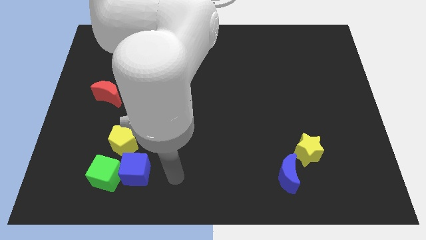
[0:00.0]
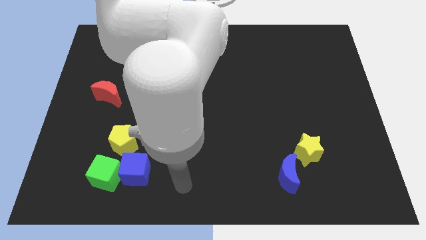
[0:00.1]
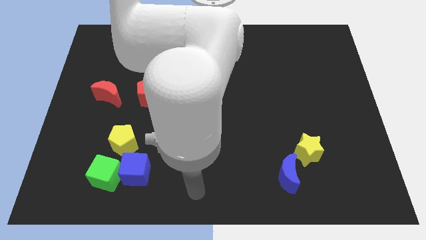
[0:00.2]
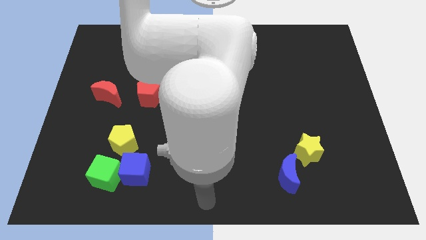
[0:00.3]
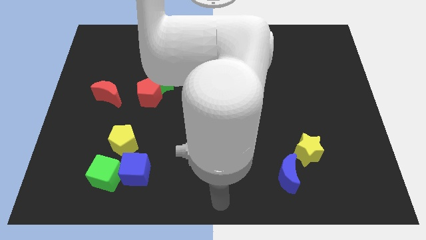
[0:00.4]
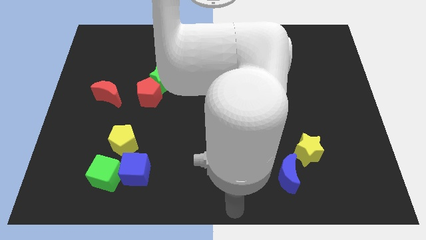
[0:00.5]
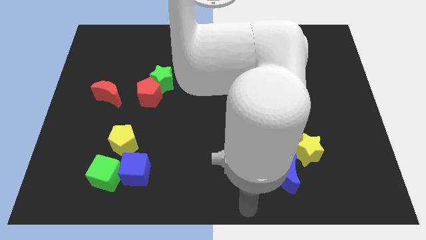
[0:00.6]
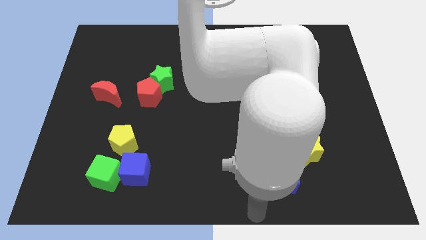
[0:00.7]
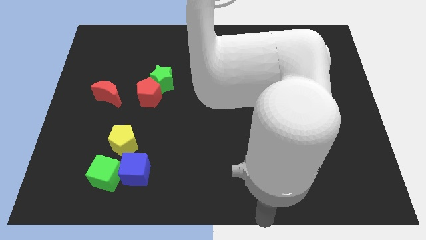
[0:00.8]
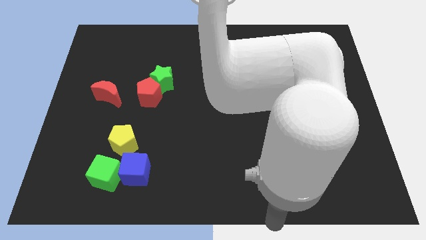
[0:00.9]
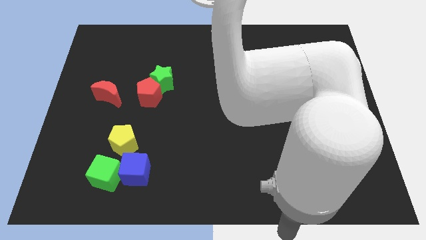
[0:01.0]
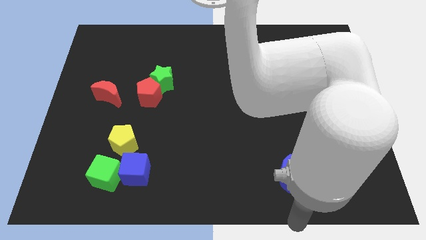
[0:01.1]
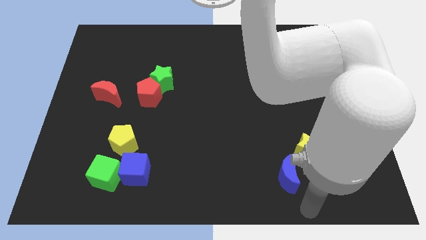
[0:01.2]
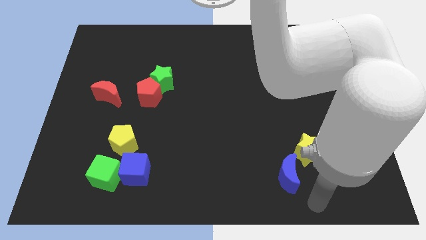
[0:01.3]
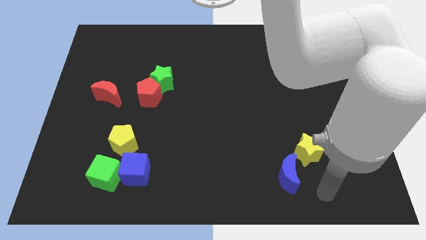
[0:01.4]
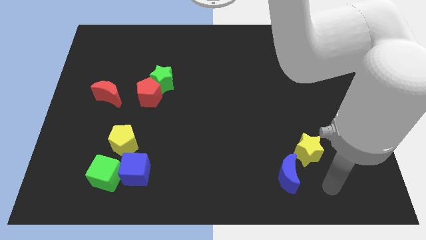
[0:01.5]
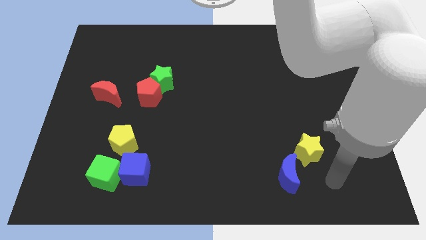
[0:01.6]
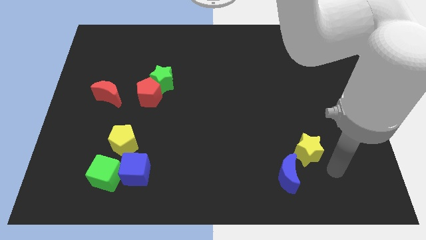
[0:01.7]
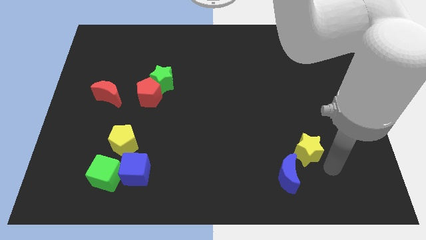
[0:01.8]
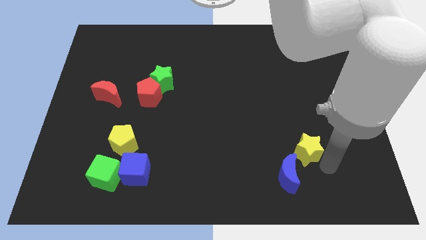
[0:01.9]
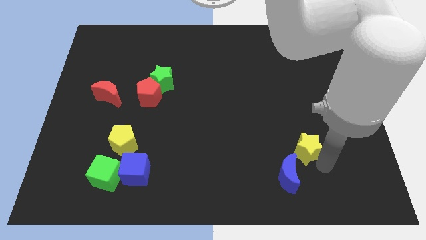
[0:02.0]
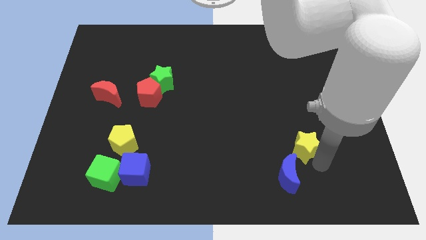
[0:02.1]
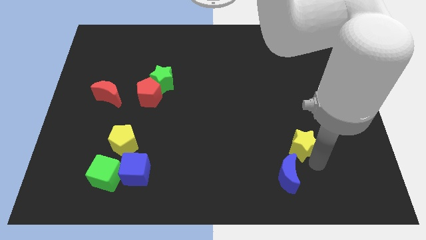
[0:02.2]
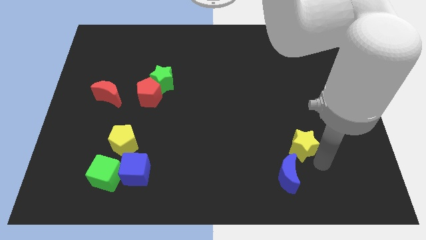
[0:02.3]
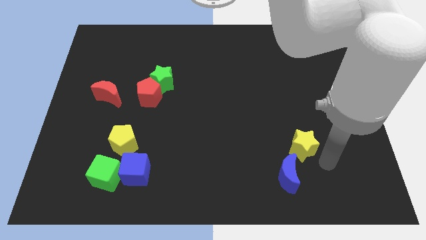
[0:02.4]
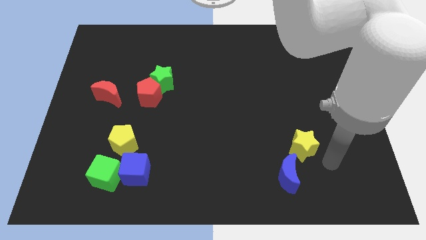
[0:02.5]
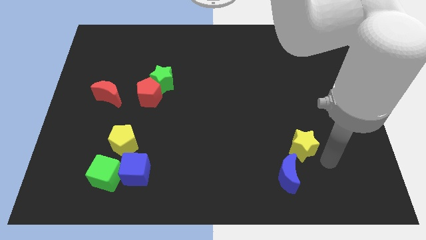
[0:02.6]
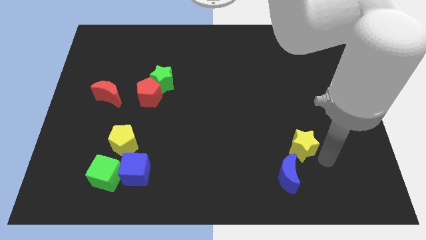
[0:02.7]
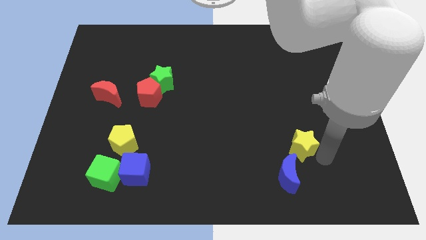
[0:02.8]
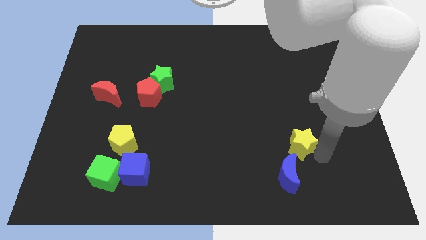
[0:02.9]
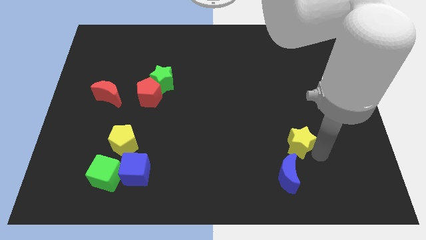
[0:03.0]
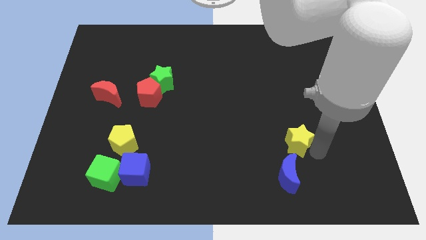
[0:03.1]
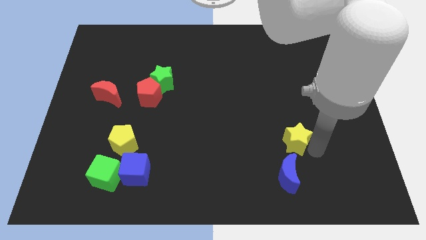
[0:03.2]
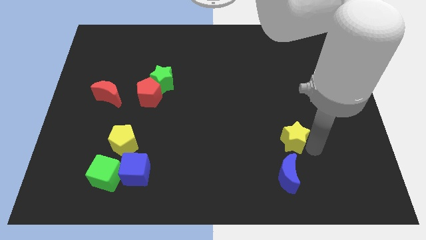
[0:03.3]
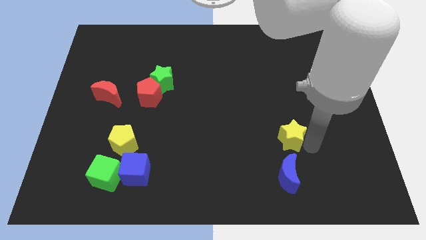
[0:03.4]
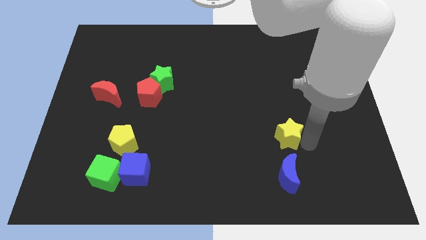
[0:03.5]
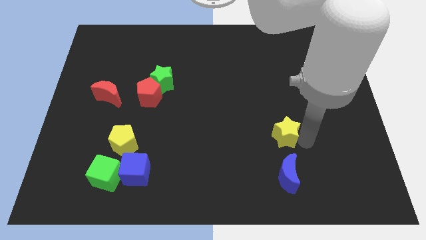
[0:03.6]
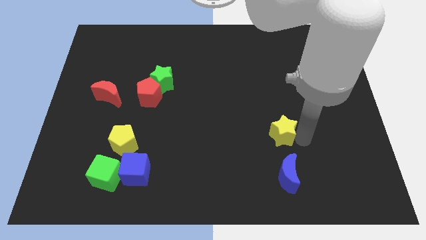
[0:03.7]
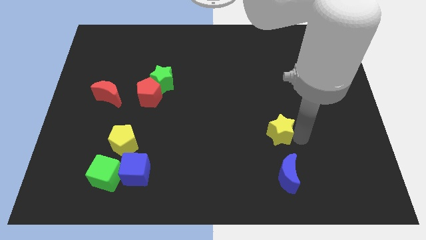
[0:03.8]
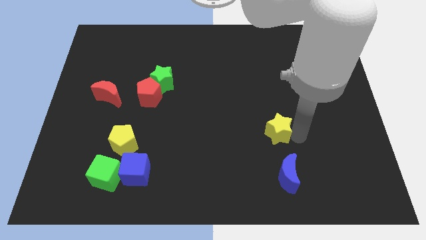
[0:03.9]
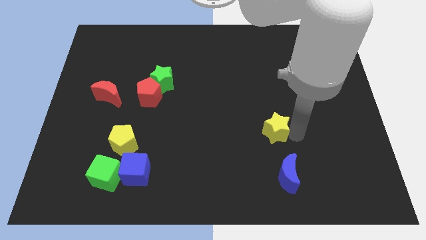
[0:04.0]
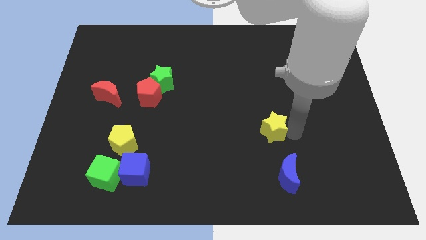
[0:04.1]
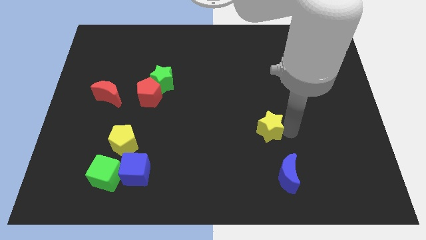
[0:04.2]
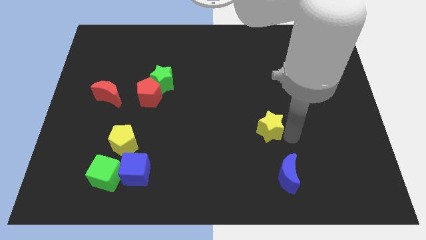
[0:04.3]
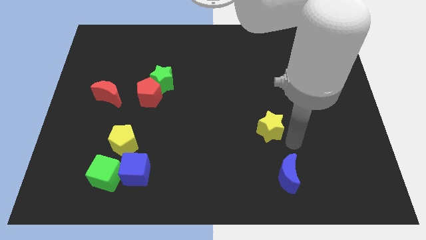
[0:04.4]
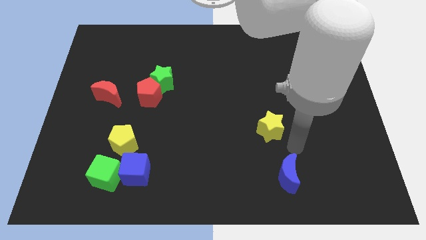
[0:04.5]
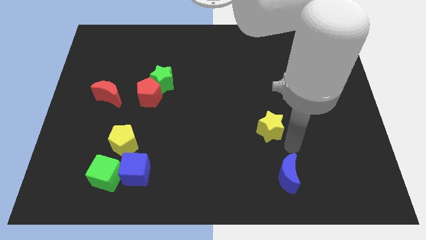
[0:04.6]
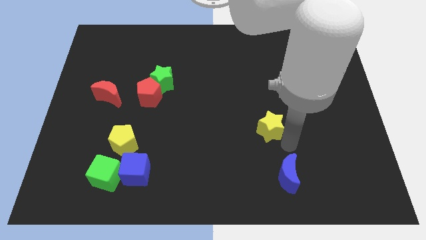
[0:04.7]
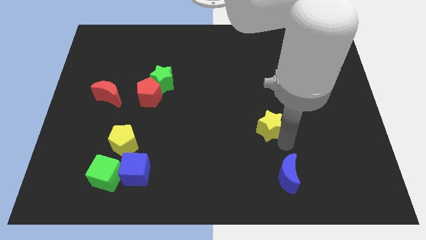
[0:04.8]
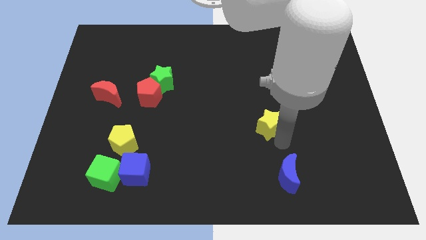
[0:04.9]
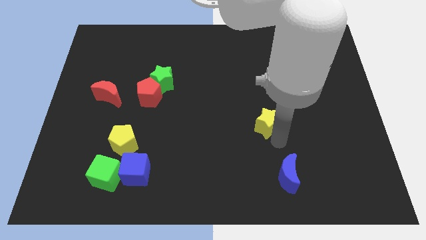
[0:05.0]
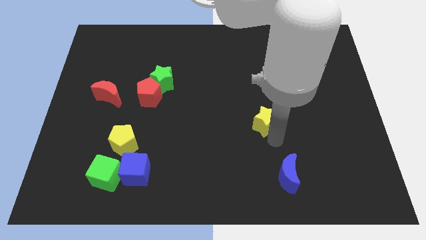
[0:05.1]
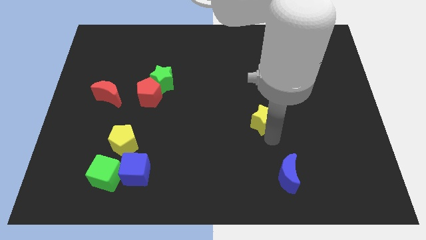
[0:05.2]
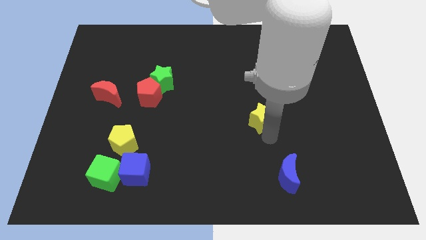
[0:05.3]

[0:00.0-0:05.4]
push the yellow star to the middle of the board

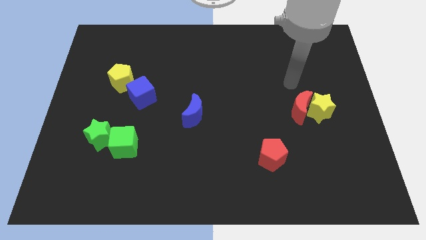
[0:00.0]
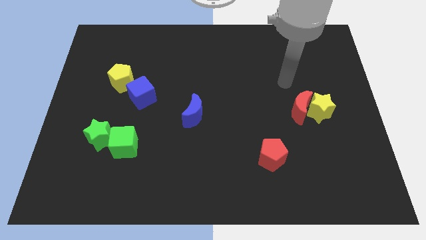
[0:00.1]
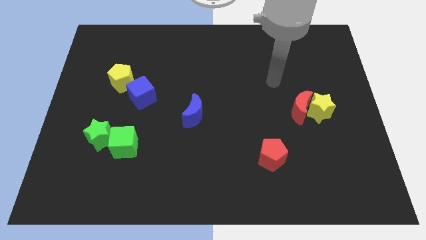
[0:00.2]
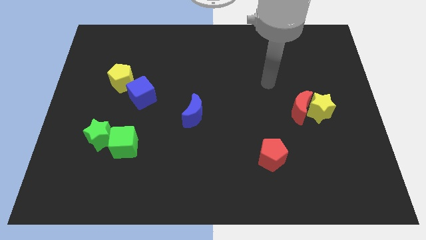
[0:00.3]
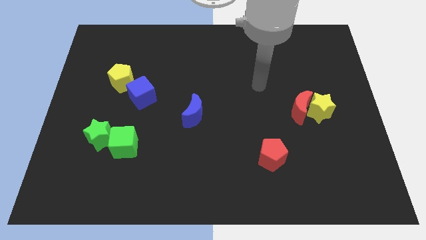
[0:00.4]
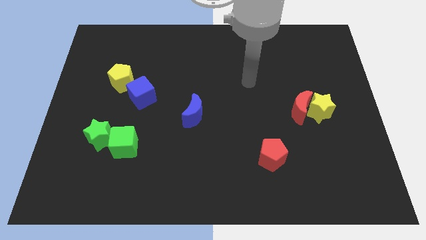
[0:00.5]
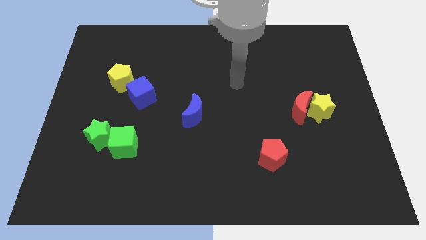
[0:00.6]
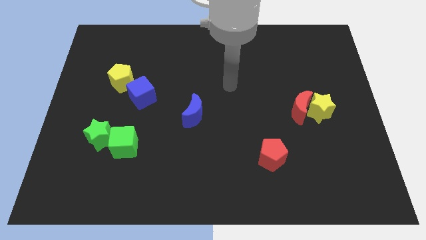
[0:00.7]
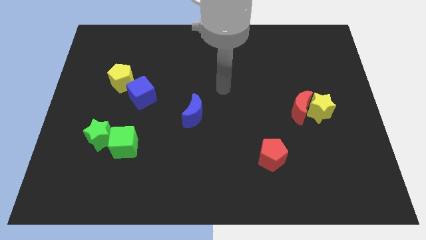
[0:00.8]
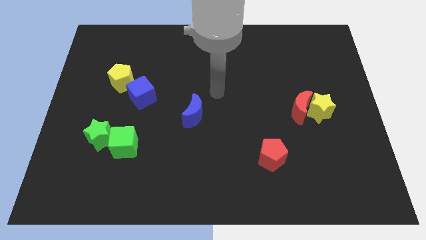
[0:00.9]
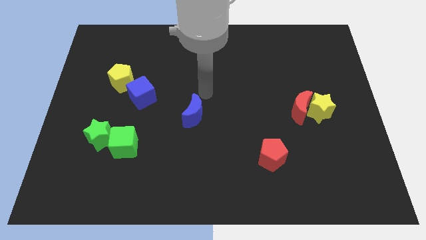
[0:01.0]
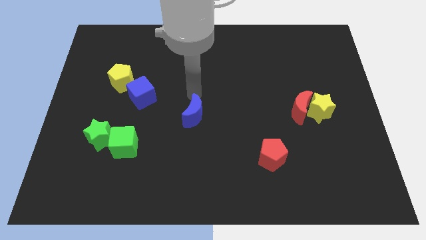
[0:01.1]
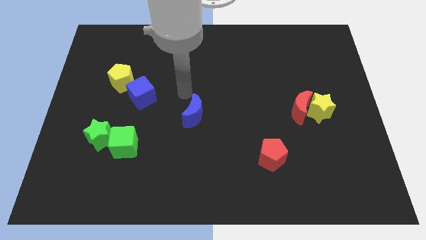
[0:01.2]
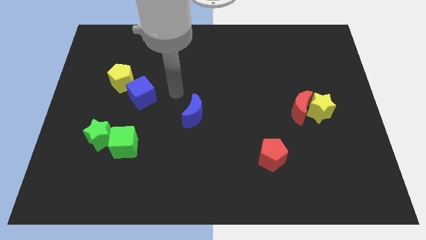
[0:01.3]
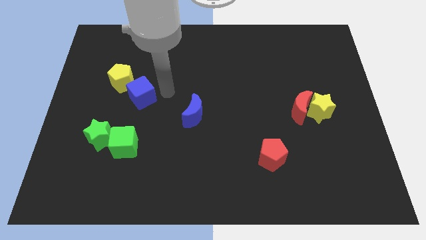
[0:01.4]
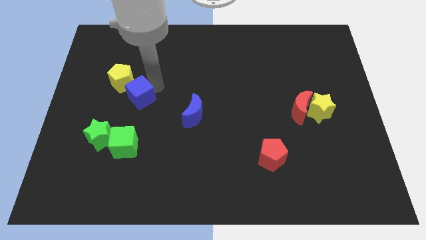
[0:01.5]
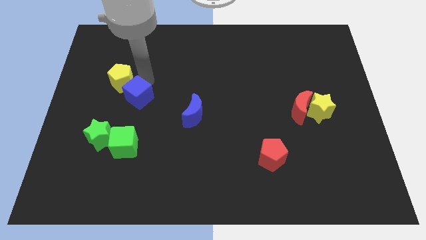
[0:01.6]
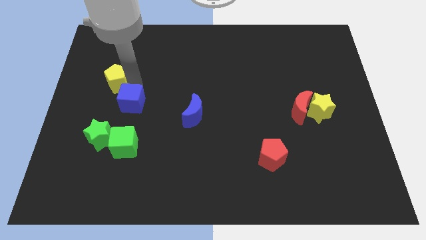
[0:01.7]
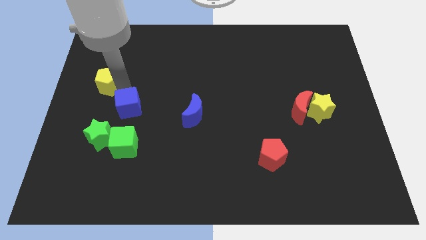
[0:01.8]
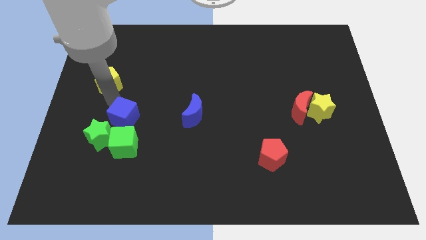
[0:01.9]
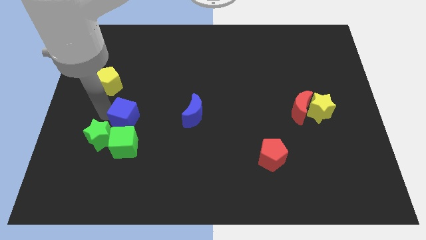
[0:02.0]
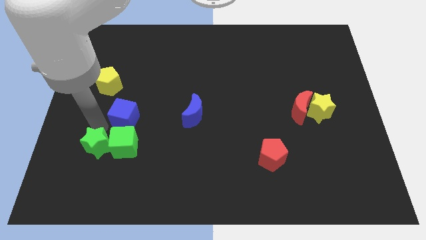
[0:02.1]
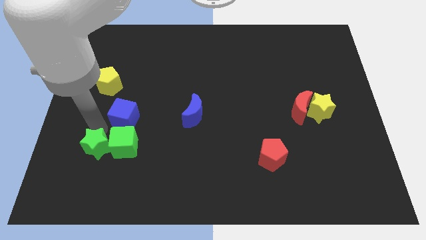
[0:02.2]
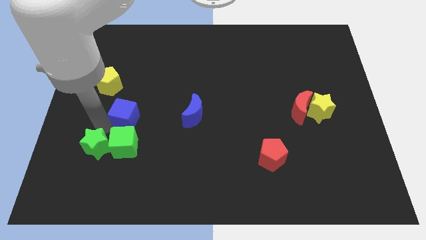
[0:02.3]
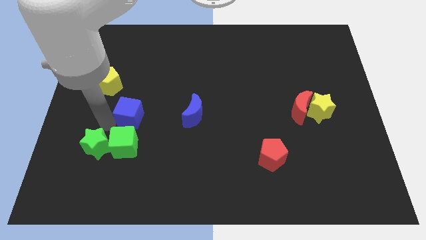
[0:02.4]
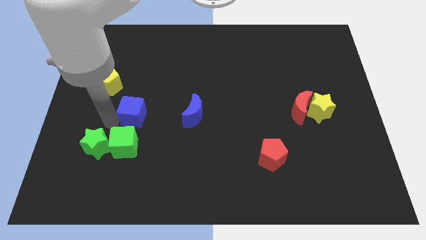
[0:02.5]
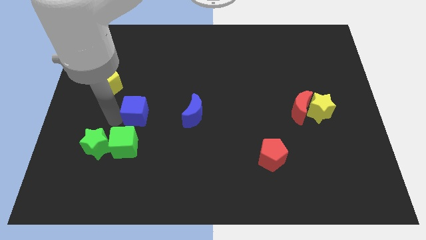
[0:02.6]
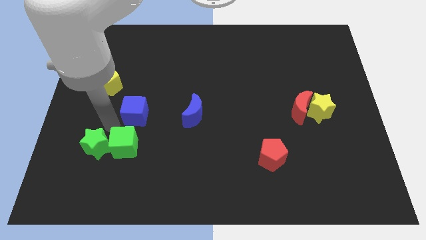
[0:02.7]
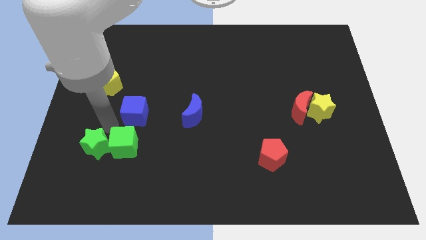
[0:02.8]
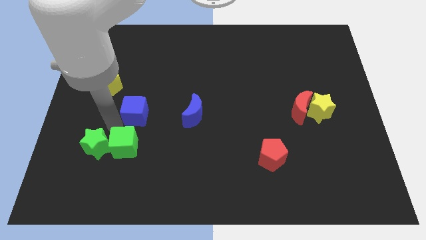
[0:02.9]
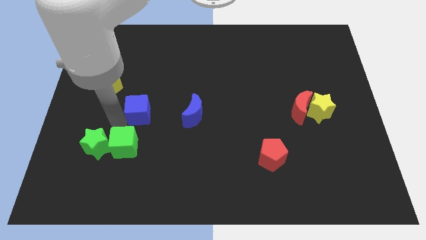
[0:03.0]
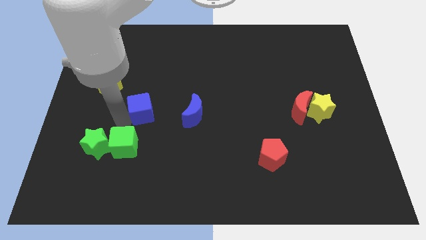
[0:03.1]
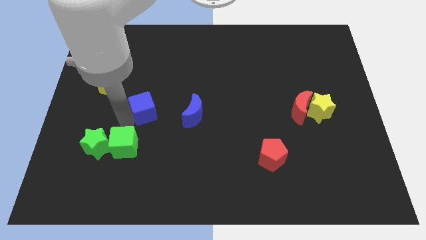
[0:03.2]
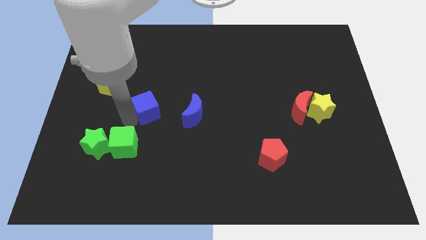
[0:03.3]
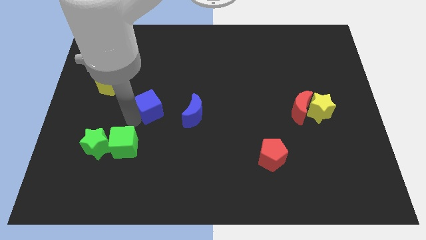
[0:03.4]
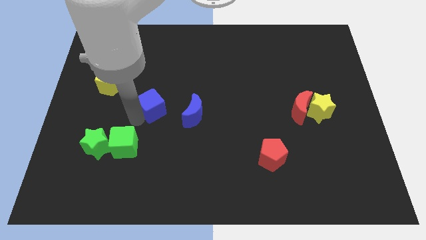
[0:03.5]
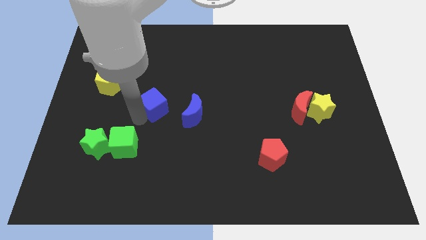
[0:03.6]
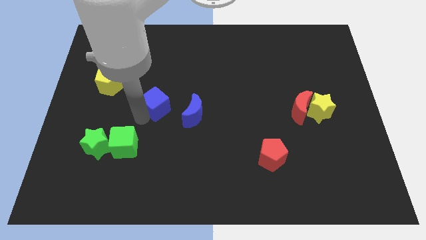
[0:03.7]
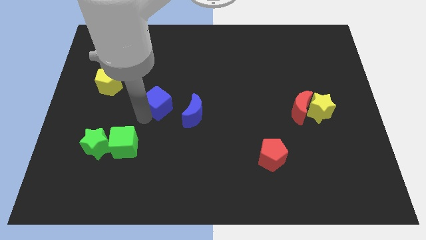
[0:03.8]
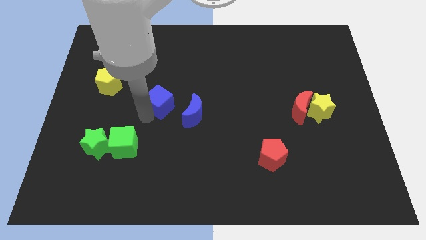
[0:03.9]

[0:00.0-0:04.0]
push the blue cube to the middle
